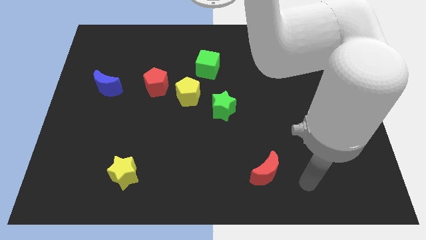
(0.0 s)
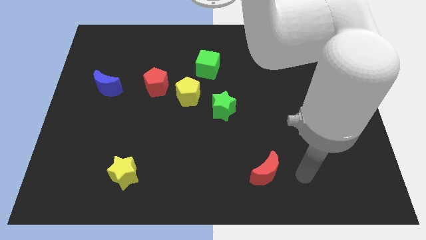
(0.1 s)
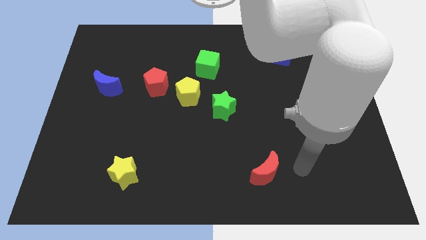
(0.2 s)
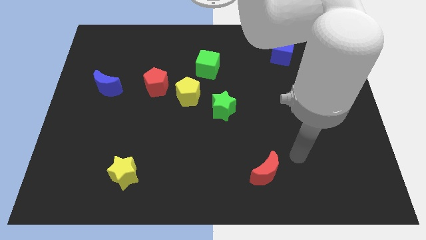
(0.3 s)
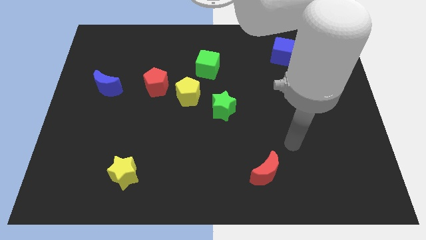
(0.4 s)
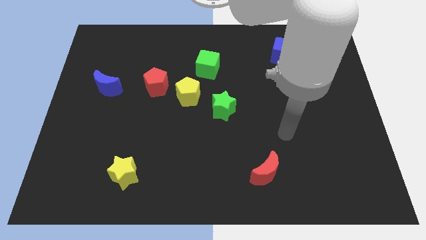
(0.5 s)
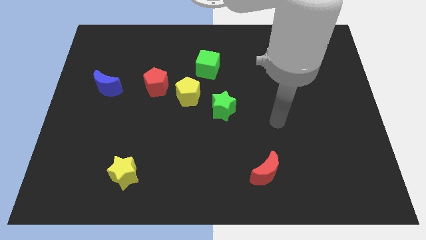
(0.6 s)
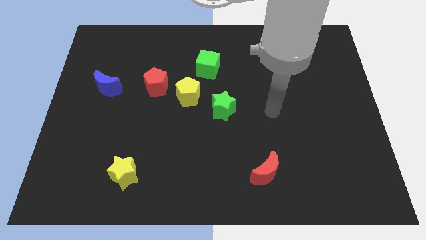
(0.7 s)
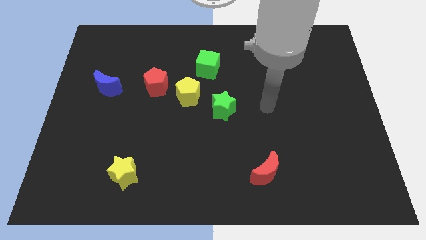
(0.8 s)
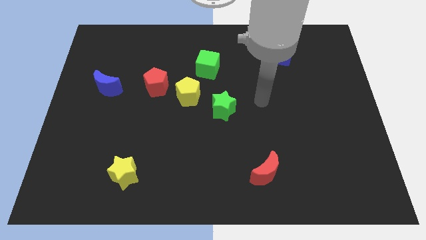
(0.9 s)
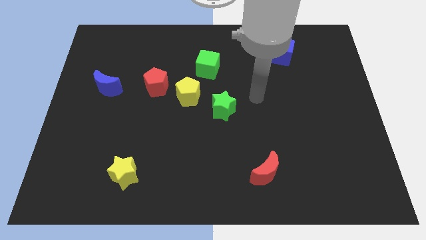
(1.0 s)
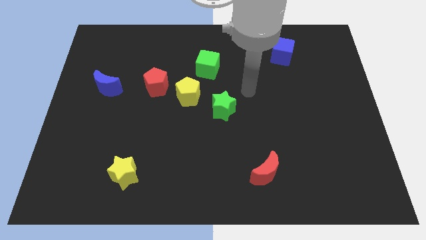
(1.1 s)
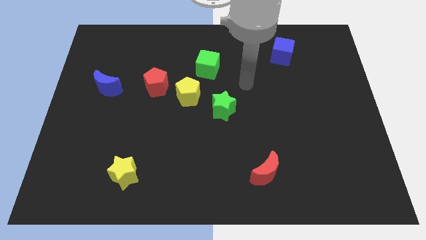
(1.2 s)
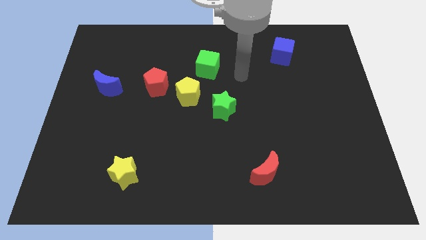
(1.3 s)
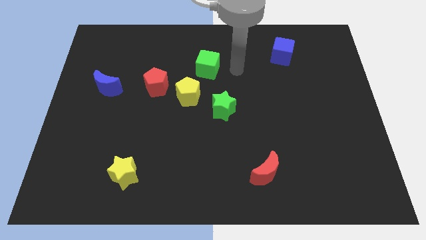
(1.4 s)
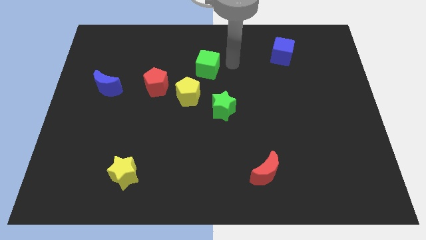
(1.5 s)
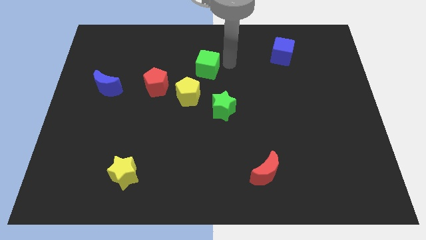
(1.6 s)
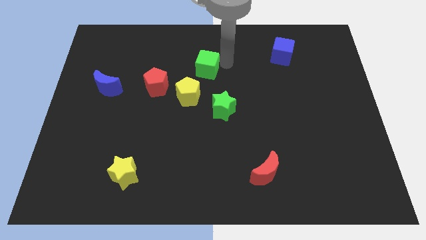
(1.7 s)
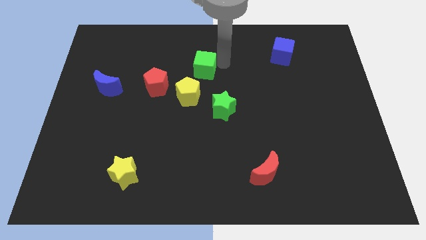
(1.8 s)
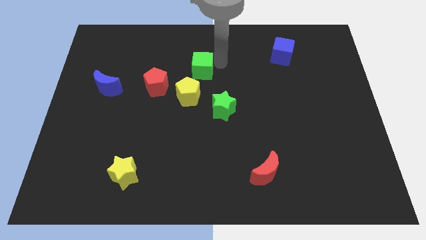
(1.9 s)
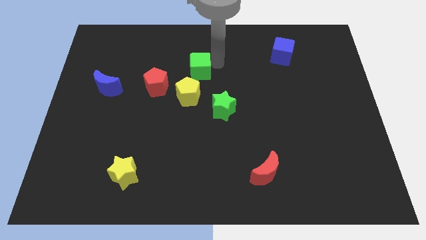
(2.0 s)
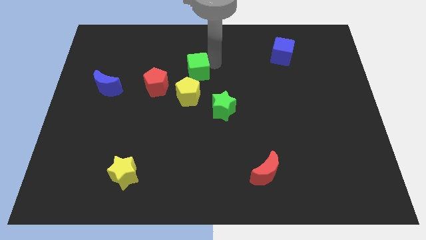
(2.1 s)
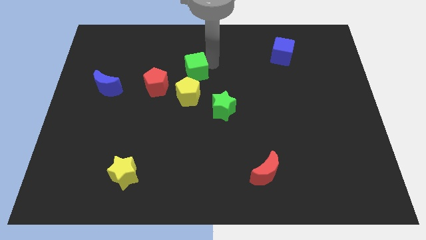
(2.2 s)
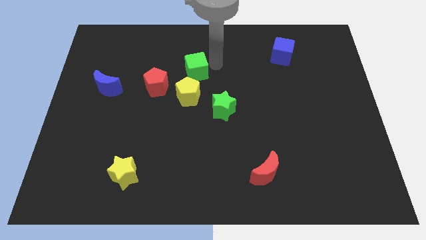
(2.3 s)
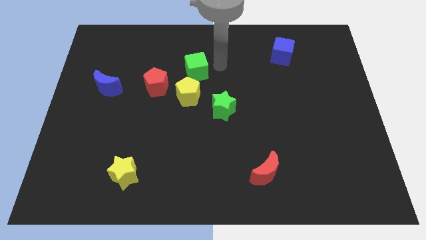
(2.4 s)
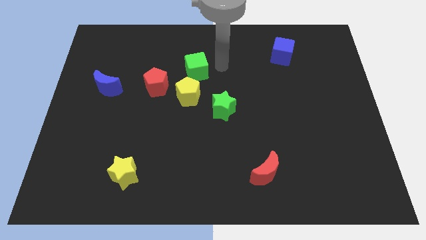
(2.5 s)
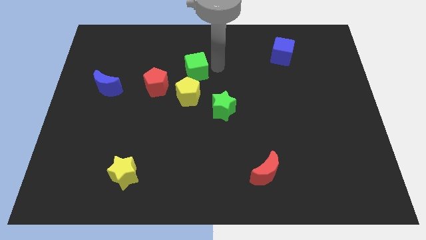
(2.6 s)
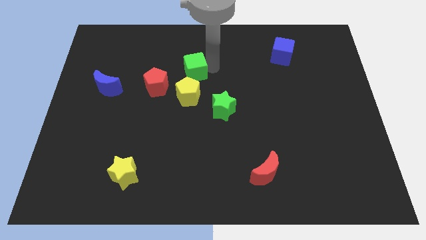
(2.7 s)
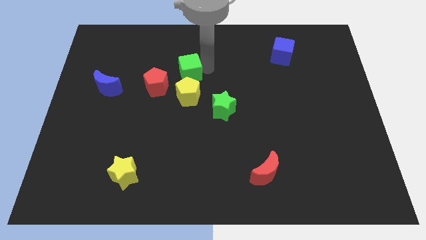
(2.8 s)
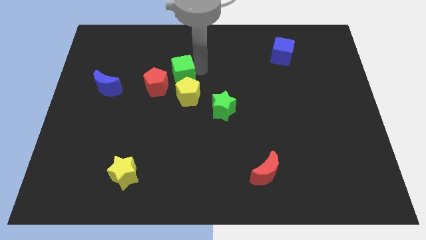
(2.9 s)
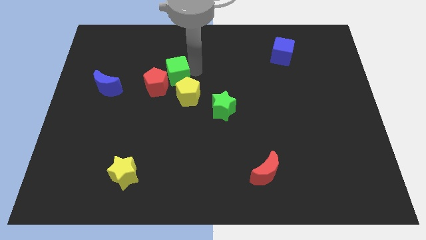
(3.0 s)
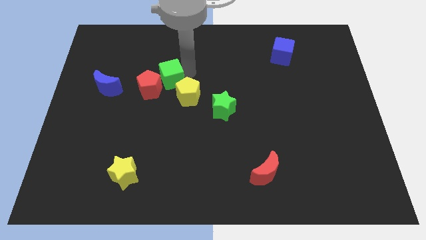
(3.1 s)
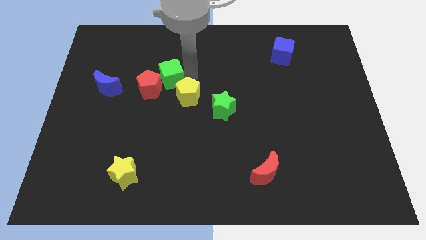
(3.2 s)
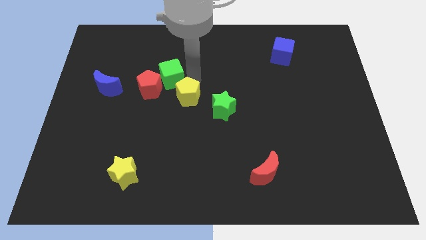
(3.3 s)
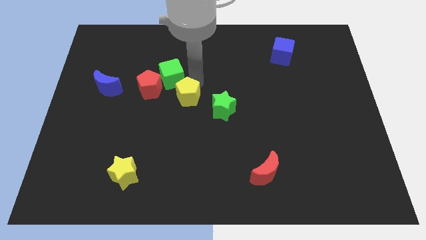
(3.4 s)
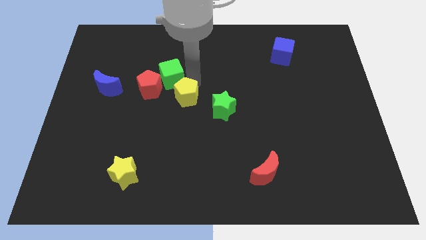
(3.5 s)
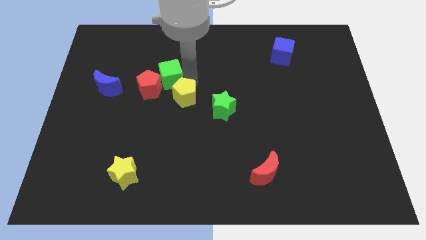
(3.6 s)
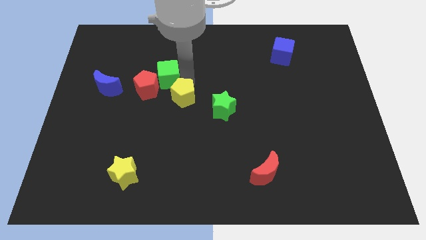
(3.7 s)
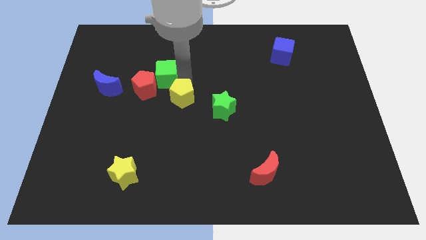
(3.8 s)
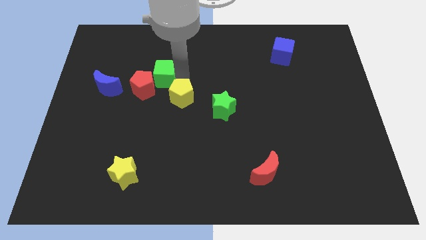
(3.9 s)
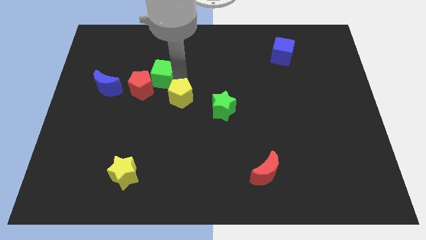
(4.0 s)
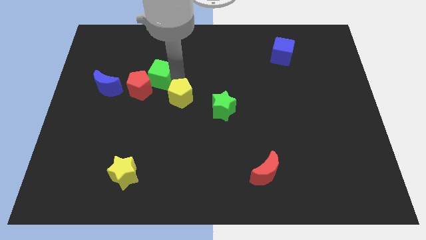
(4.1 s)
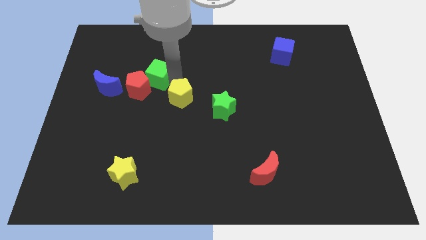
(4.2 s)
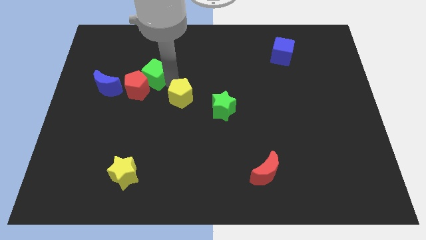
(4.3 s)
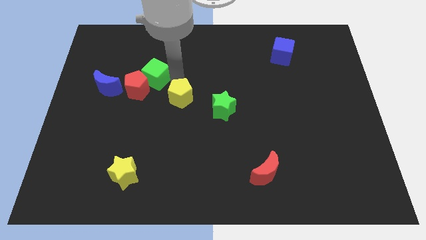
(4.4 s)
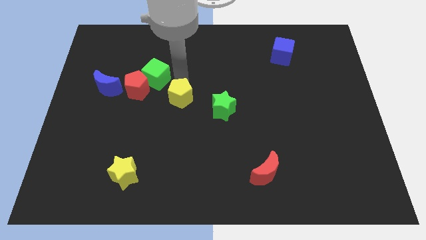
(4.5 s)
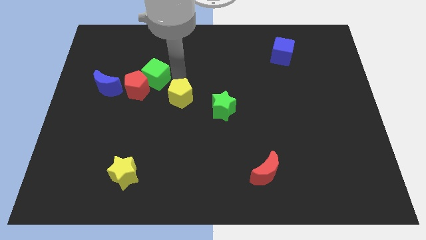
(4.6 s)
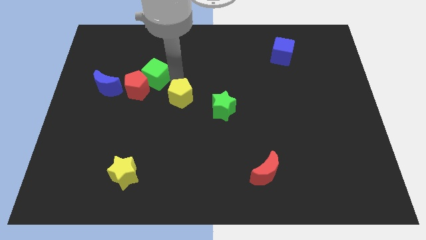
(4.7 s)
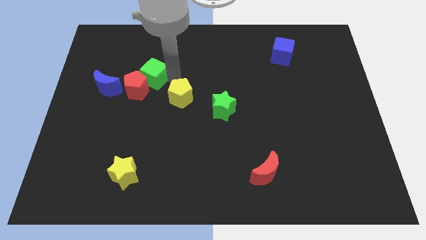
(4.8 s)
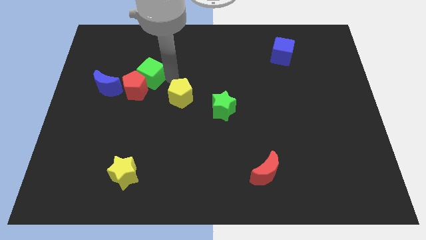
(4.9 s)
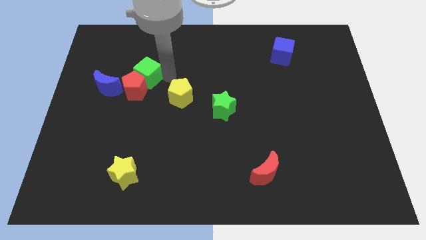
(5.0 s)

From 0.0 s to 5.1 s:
put the green cube to the top right of the blue moon

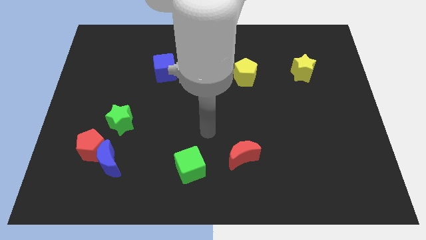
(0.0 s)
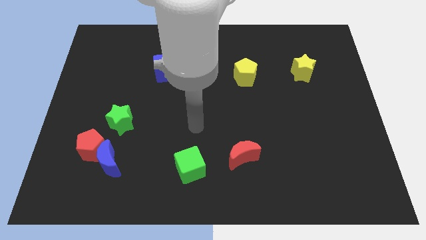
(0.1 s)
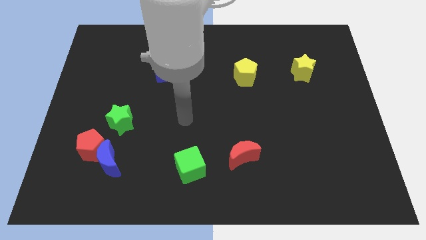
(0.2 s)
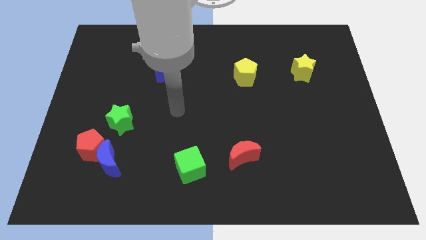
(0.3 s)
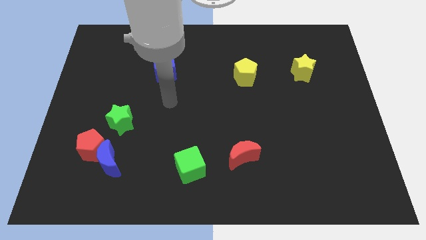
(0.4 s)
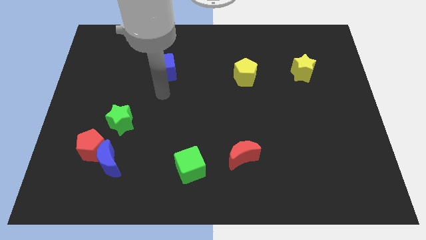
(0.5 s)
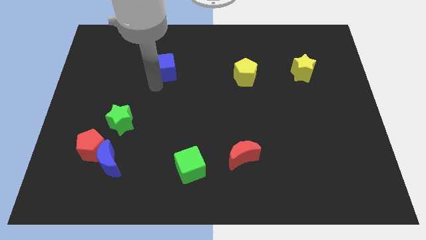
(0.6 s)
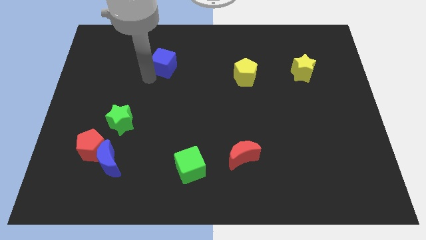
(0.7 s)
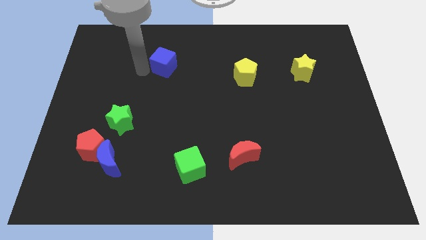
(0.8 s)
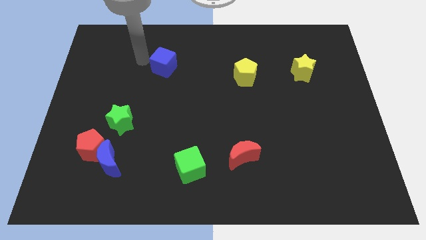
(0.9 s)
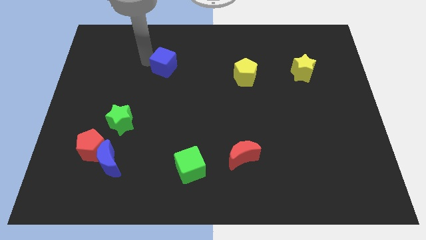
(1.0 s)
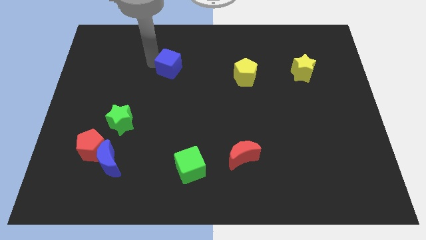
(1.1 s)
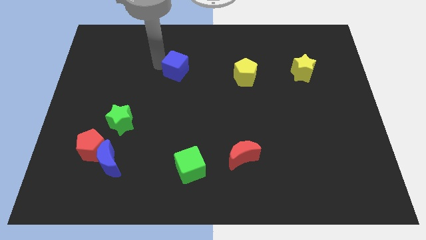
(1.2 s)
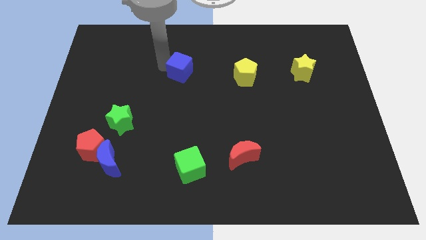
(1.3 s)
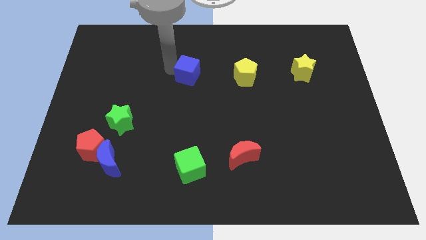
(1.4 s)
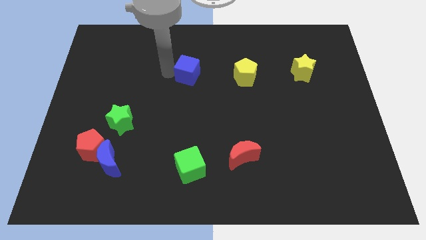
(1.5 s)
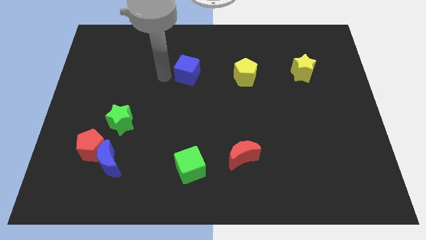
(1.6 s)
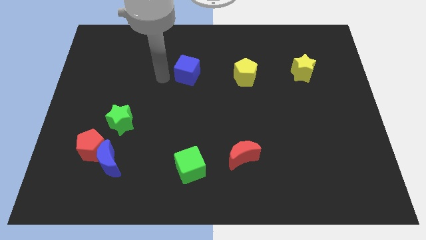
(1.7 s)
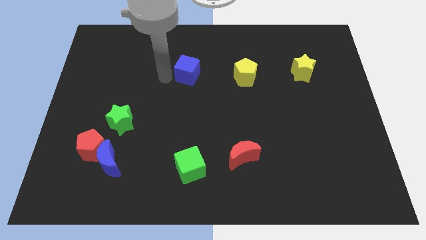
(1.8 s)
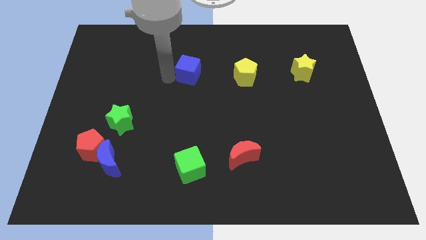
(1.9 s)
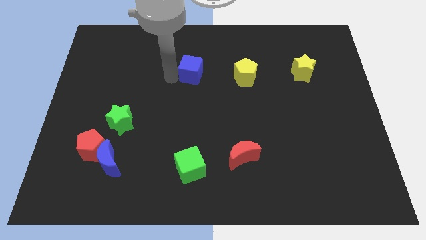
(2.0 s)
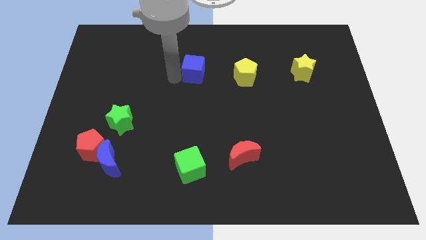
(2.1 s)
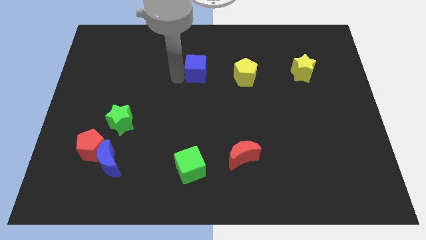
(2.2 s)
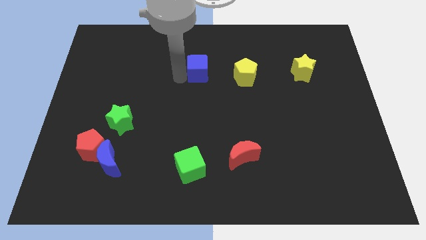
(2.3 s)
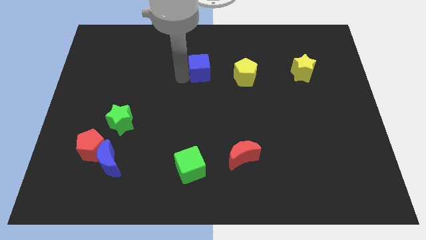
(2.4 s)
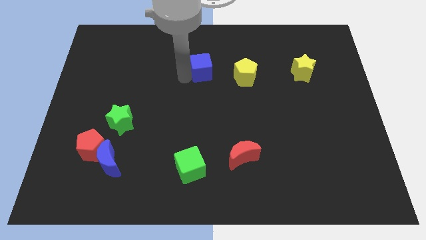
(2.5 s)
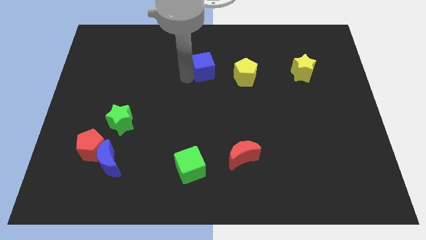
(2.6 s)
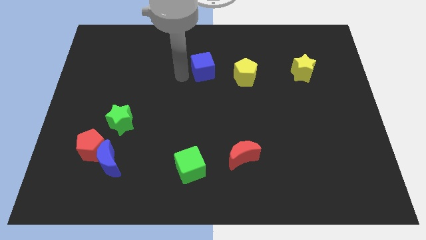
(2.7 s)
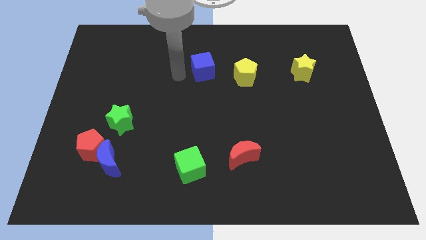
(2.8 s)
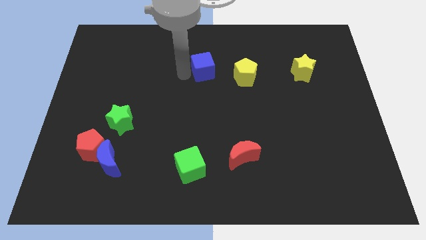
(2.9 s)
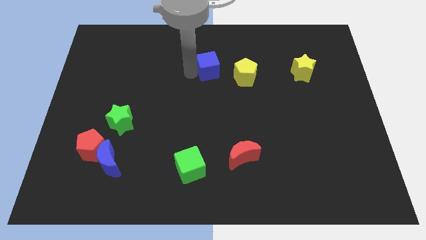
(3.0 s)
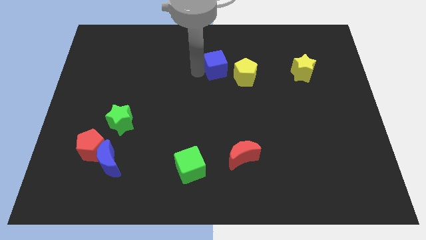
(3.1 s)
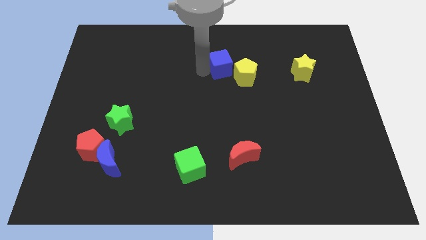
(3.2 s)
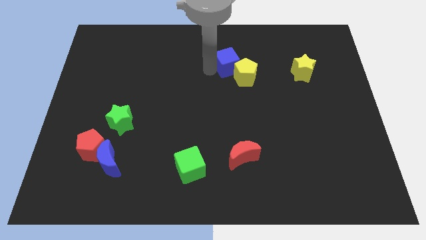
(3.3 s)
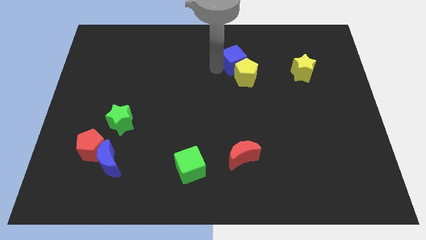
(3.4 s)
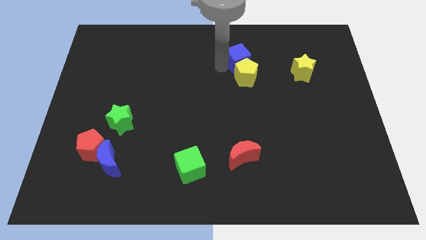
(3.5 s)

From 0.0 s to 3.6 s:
move the blue cube diagonally up and to the right of the yellow pentagon
